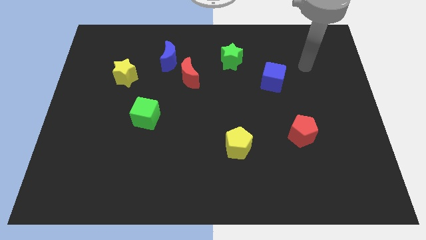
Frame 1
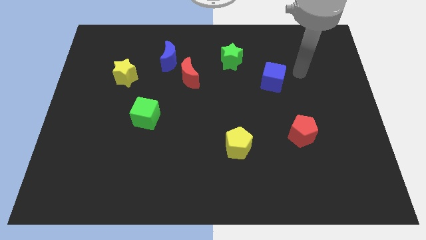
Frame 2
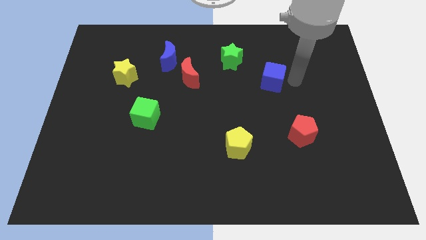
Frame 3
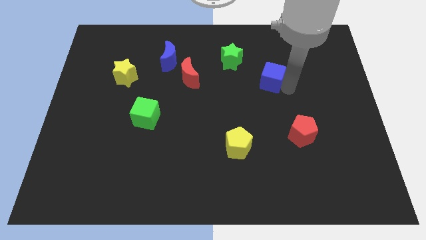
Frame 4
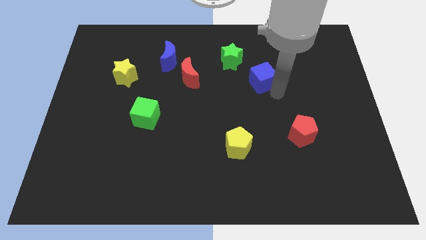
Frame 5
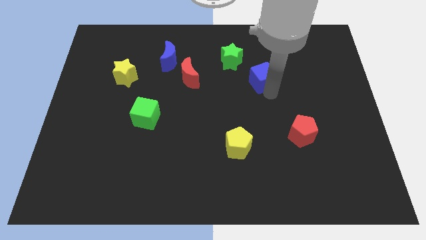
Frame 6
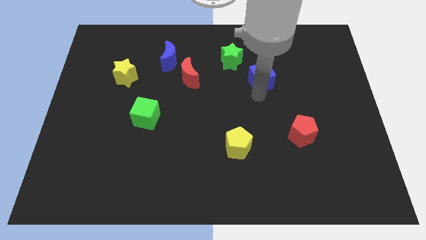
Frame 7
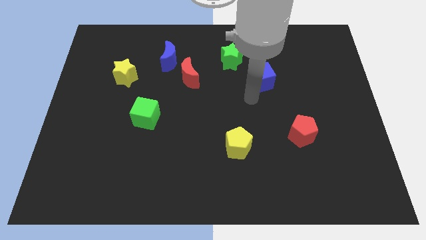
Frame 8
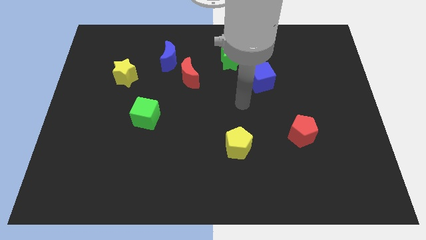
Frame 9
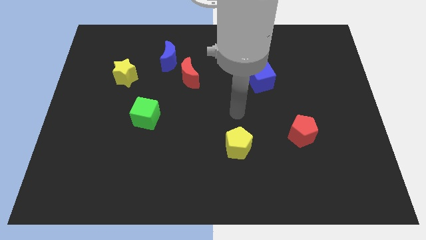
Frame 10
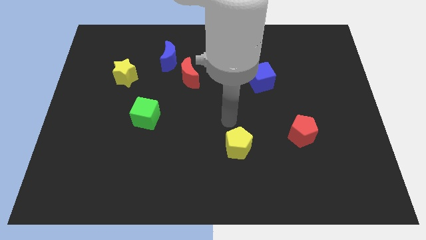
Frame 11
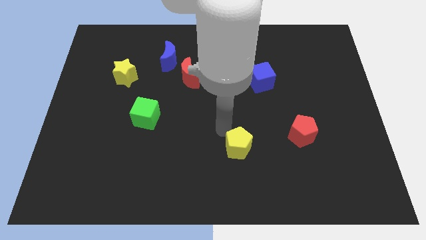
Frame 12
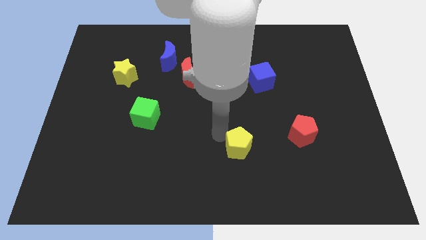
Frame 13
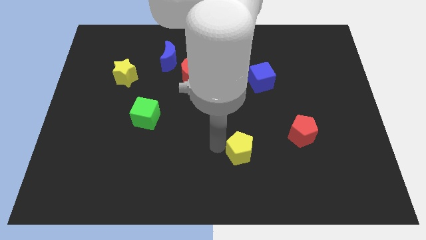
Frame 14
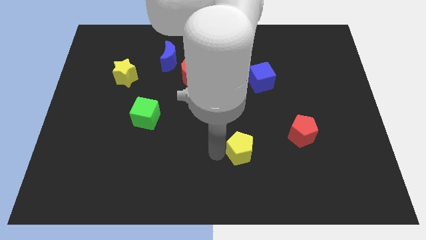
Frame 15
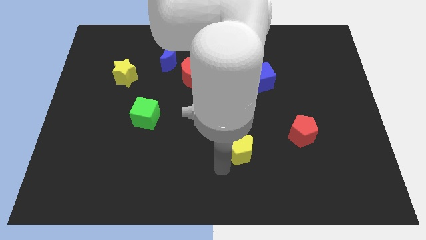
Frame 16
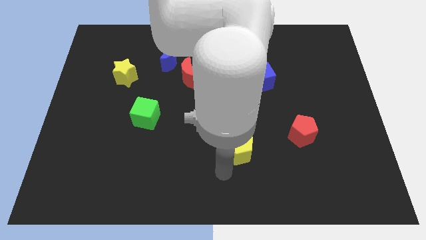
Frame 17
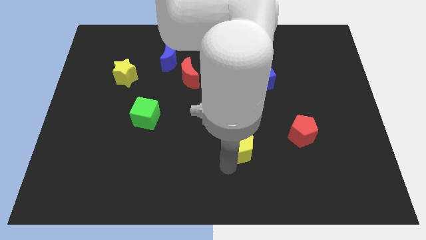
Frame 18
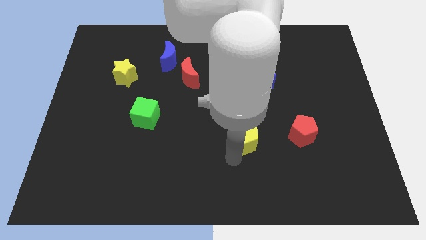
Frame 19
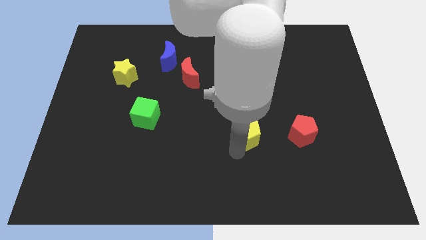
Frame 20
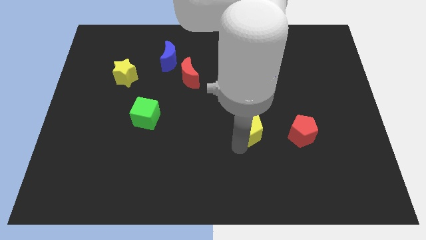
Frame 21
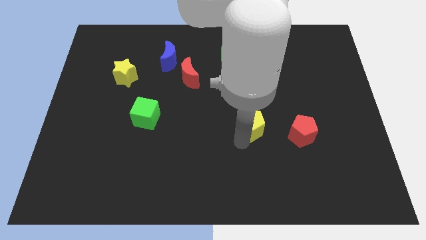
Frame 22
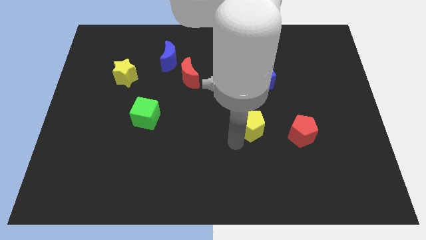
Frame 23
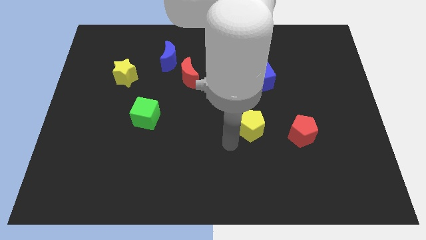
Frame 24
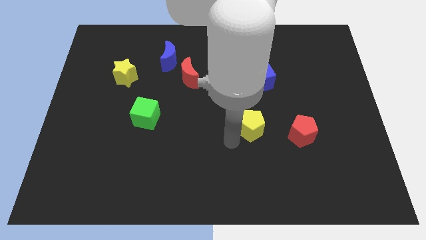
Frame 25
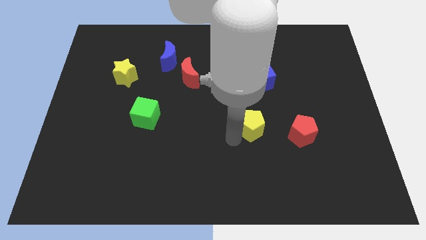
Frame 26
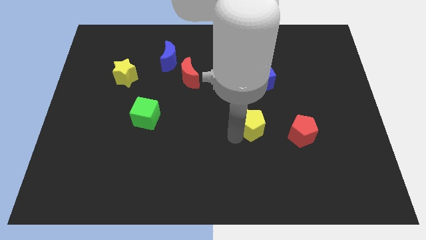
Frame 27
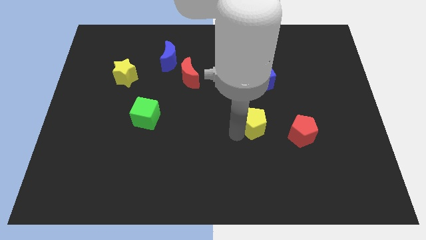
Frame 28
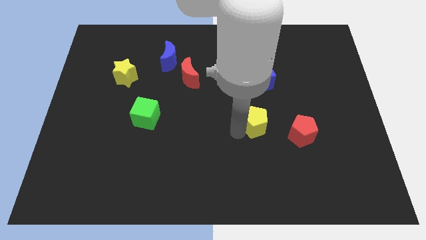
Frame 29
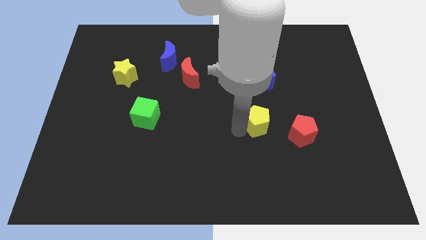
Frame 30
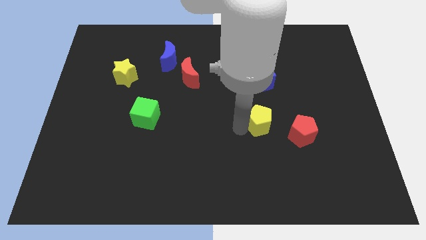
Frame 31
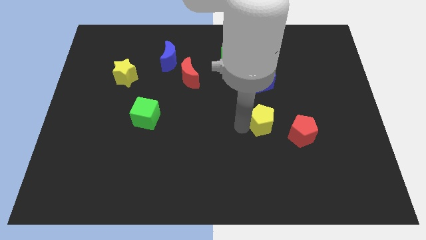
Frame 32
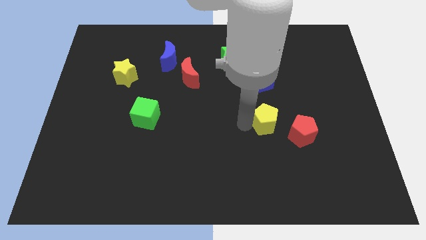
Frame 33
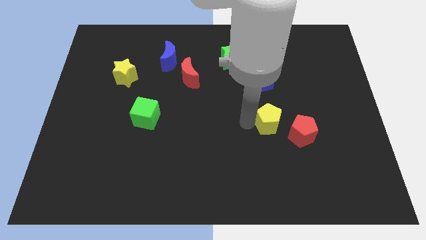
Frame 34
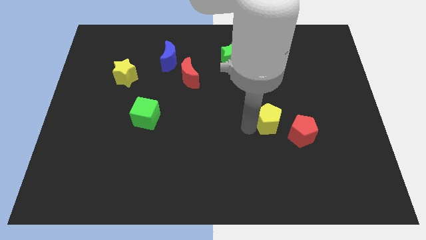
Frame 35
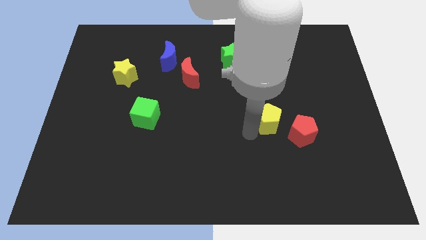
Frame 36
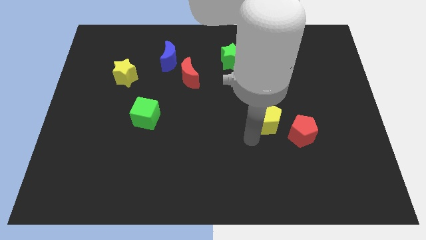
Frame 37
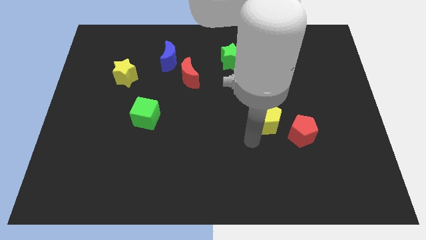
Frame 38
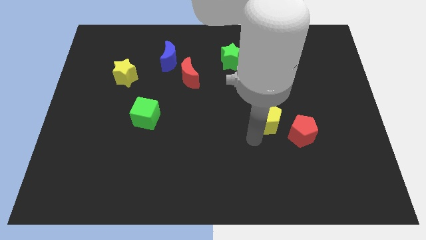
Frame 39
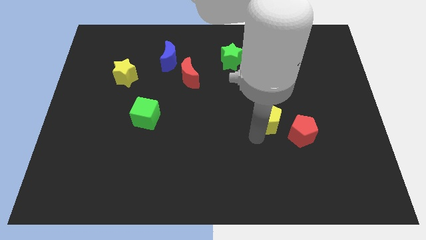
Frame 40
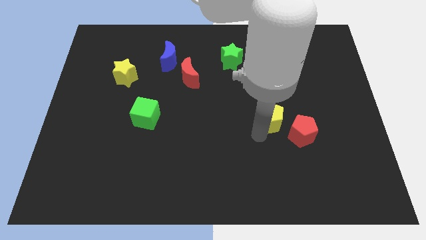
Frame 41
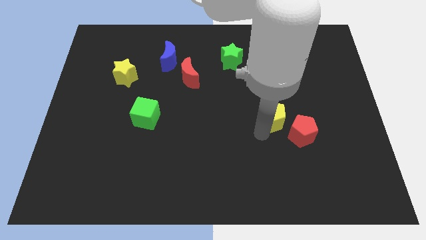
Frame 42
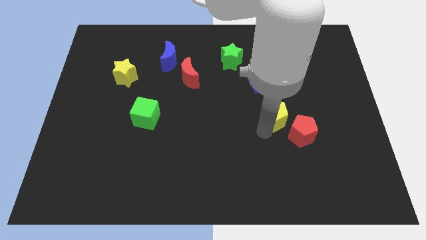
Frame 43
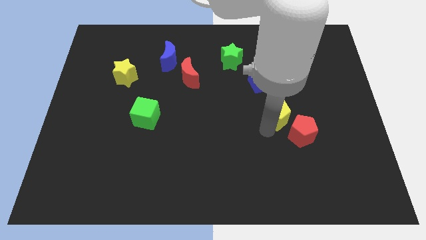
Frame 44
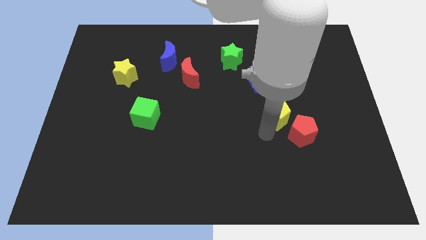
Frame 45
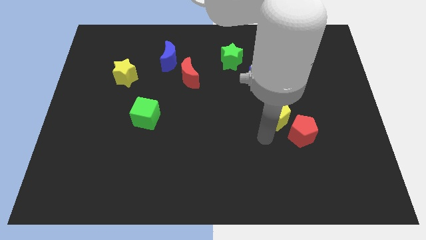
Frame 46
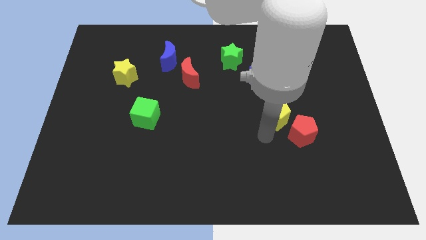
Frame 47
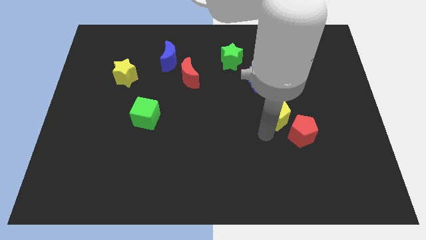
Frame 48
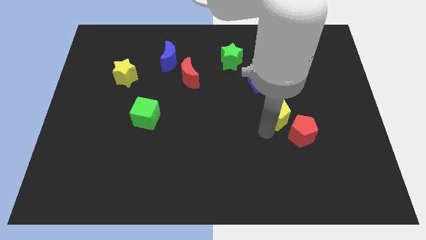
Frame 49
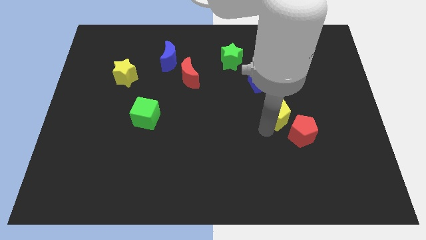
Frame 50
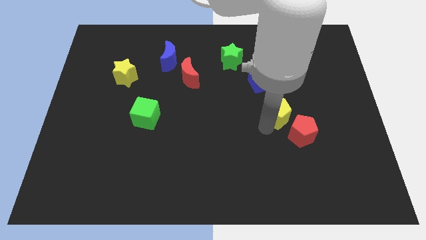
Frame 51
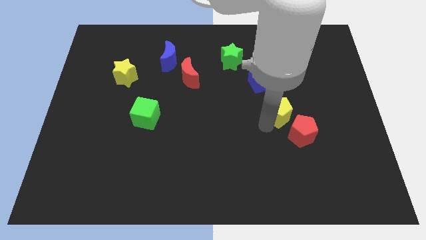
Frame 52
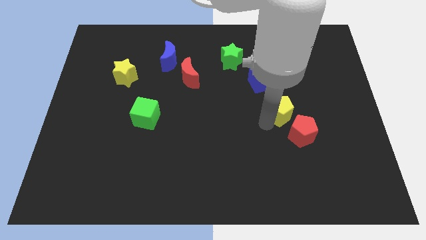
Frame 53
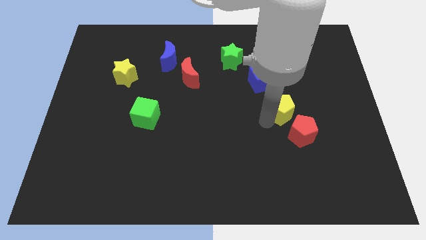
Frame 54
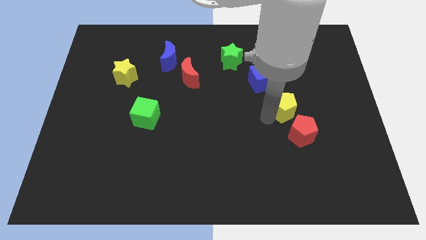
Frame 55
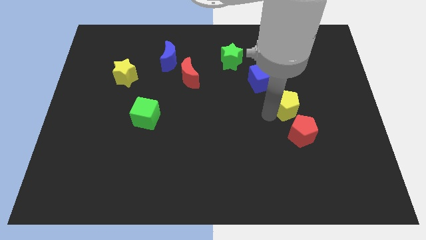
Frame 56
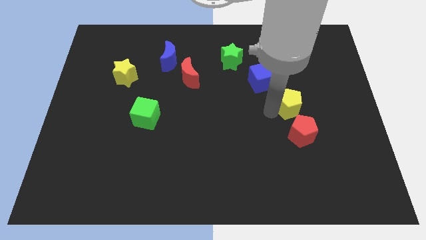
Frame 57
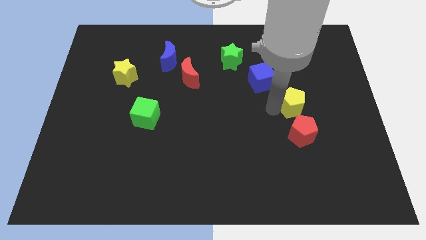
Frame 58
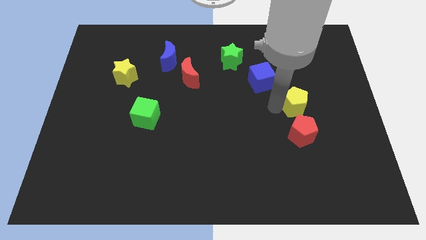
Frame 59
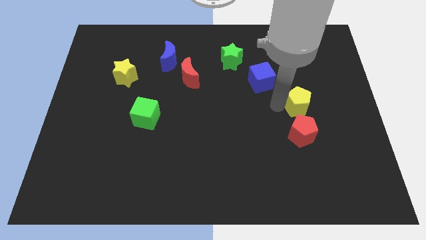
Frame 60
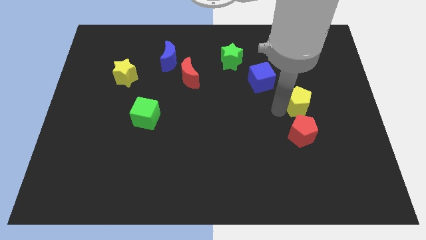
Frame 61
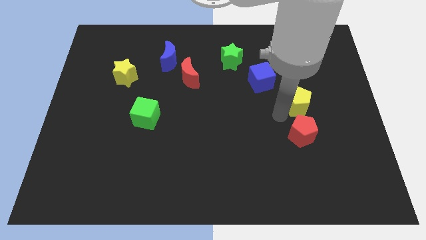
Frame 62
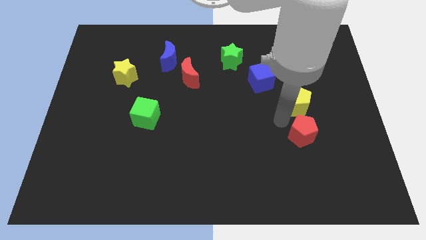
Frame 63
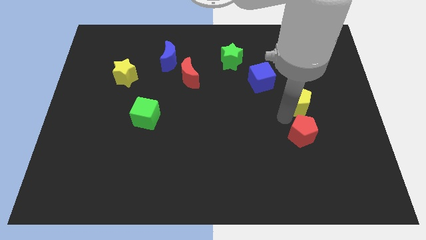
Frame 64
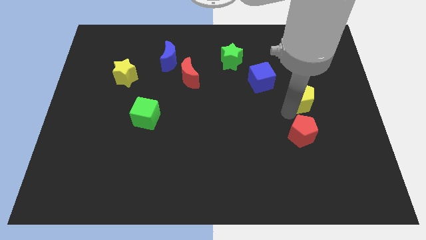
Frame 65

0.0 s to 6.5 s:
push the yellow pentagon up and to the right diagonally

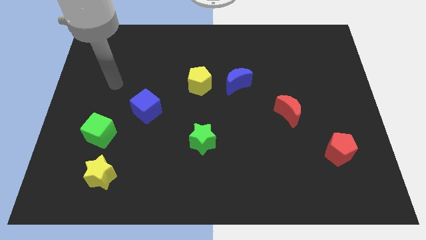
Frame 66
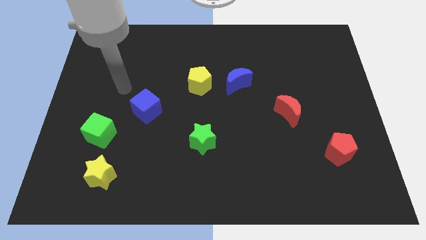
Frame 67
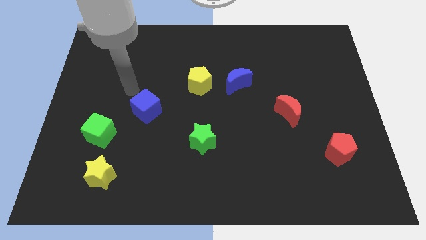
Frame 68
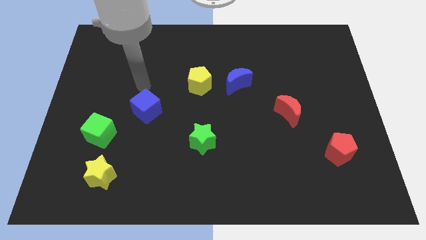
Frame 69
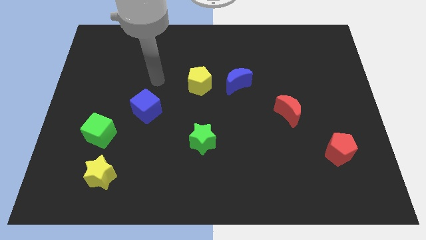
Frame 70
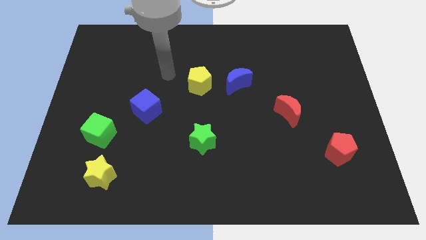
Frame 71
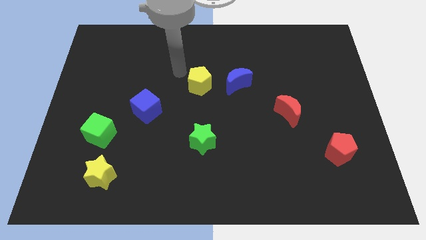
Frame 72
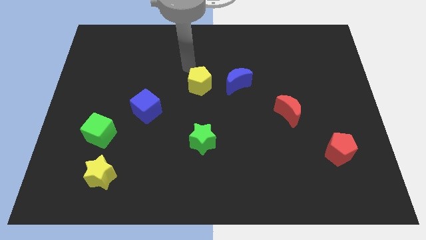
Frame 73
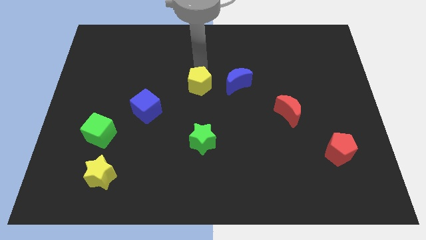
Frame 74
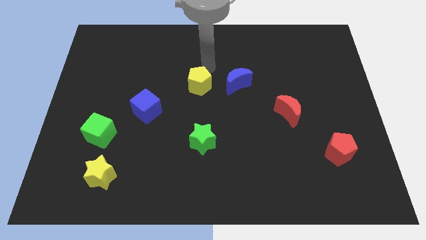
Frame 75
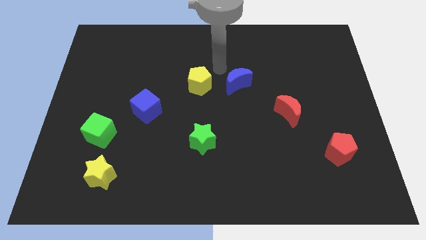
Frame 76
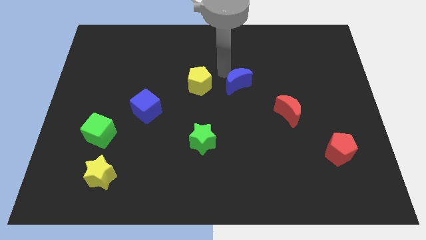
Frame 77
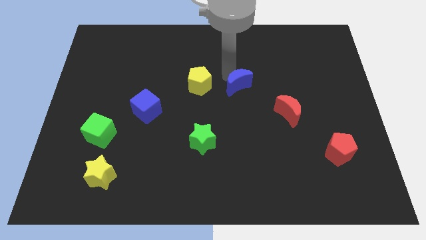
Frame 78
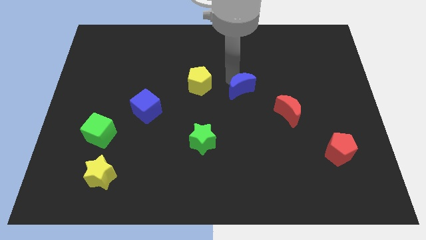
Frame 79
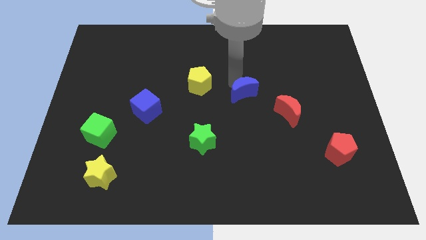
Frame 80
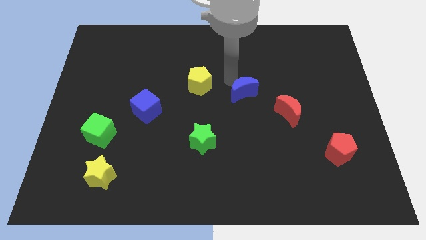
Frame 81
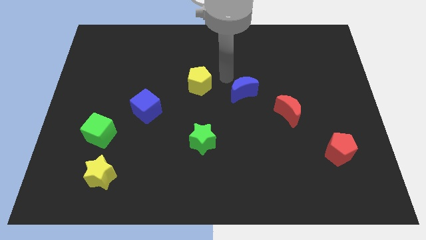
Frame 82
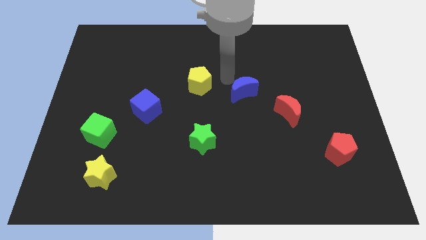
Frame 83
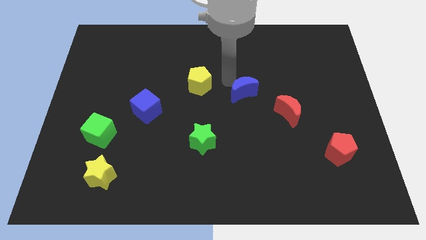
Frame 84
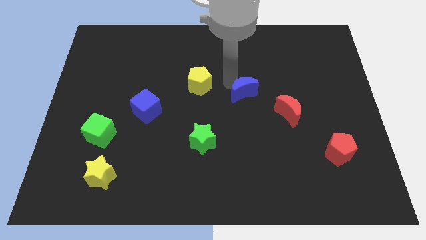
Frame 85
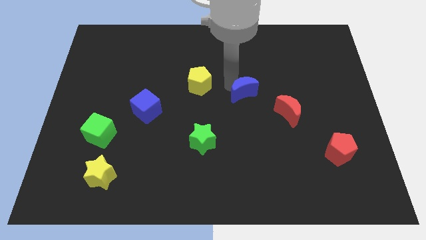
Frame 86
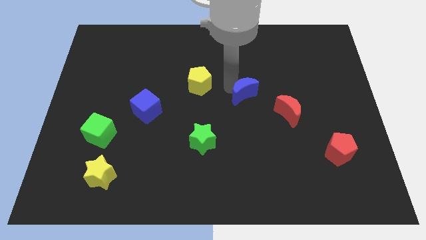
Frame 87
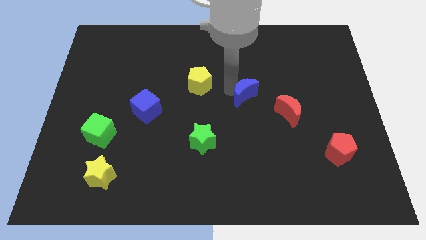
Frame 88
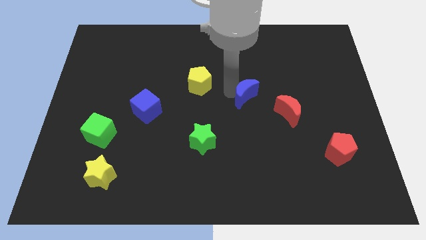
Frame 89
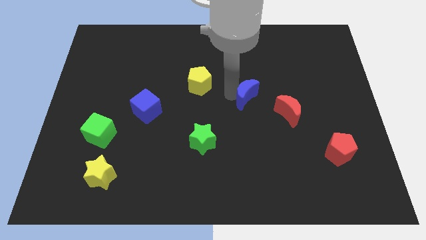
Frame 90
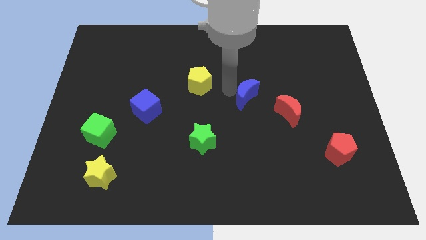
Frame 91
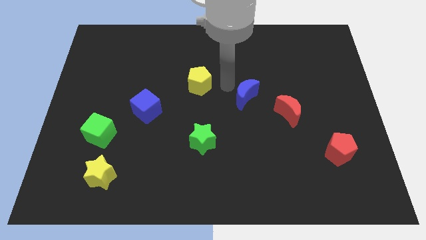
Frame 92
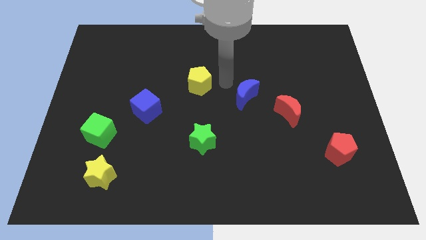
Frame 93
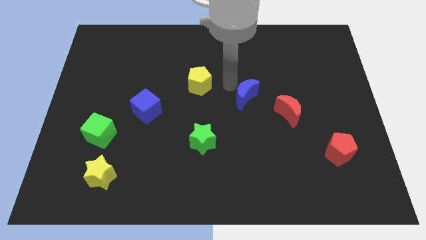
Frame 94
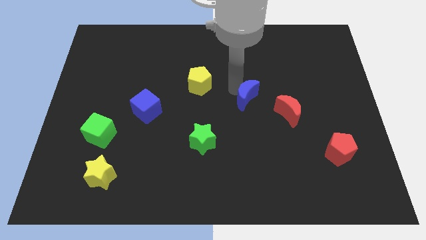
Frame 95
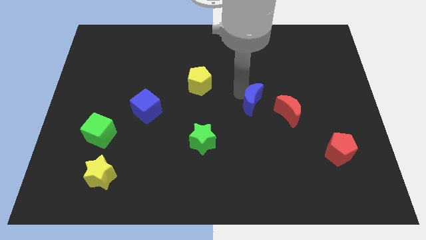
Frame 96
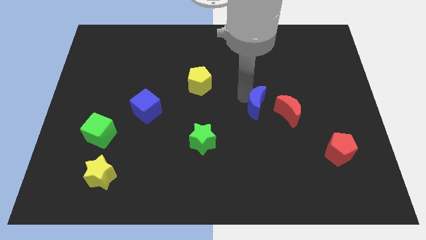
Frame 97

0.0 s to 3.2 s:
slide the blue moon diagonally down and right somewhat
